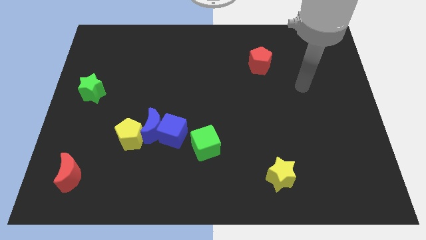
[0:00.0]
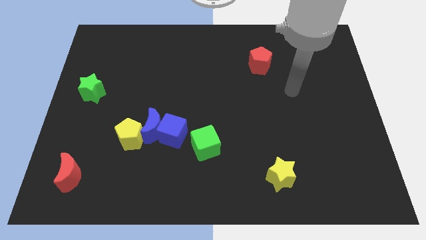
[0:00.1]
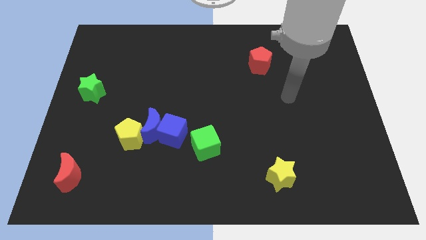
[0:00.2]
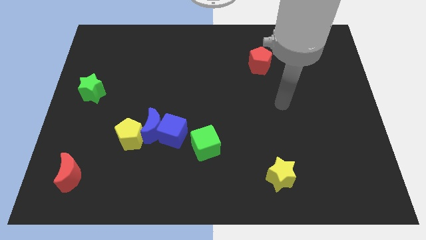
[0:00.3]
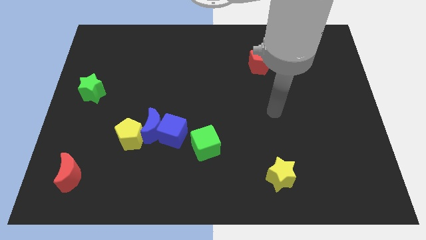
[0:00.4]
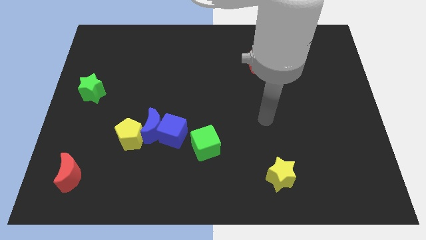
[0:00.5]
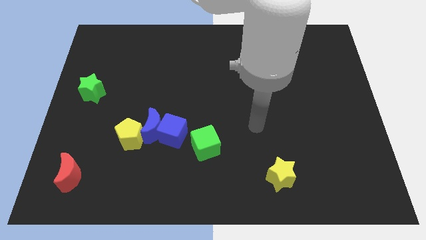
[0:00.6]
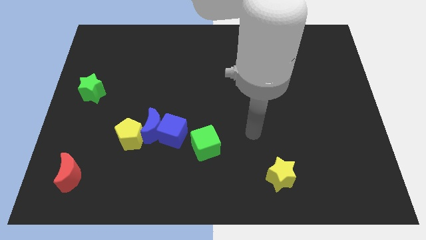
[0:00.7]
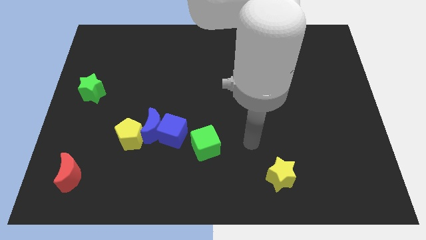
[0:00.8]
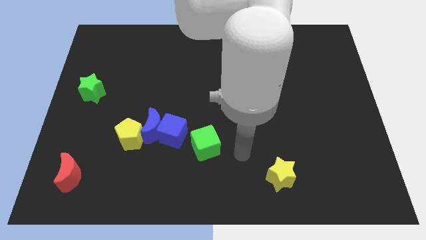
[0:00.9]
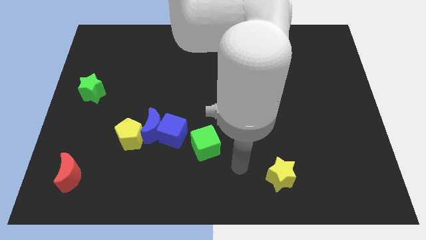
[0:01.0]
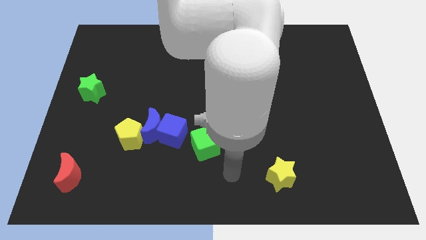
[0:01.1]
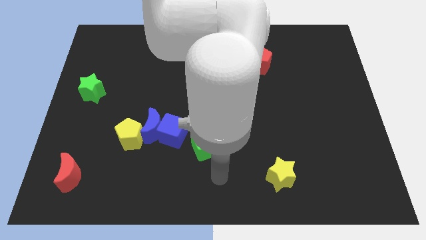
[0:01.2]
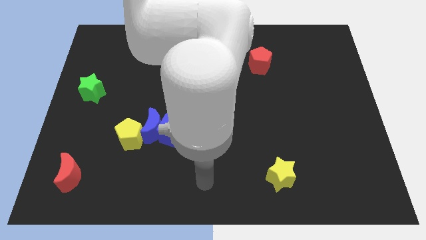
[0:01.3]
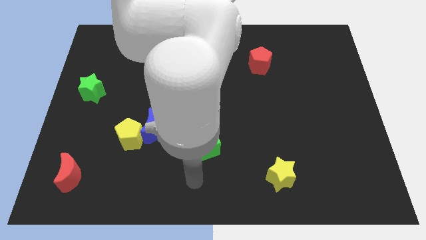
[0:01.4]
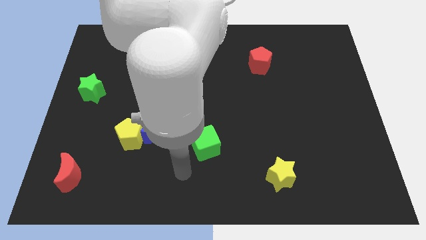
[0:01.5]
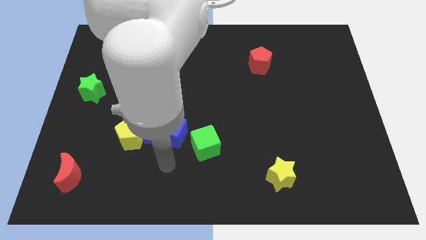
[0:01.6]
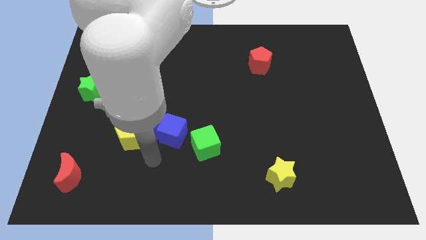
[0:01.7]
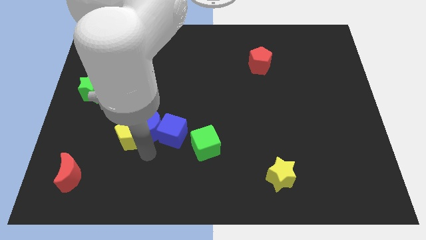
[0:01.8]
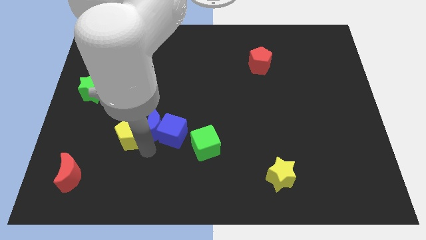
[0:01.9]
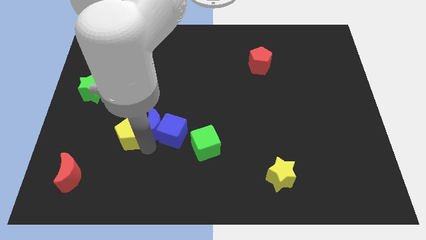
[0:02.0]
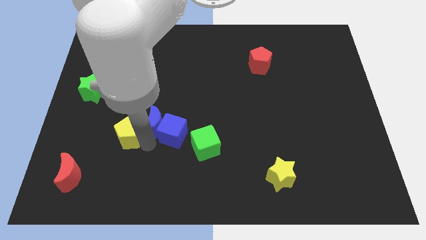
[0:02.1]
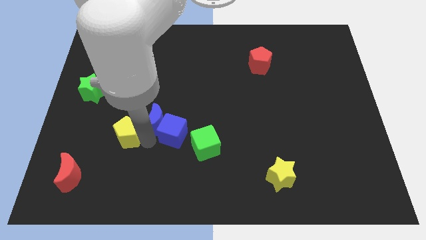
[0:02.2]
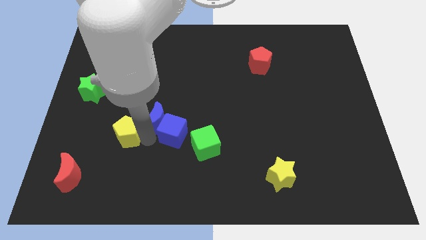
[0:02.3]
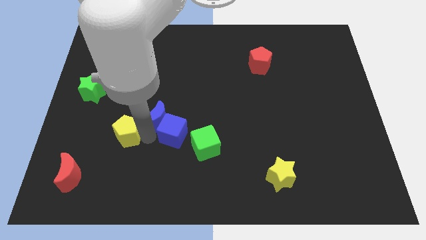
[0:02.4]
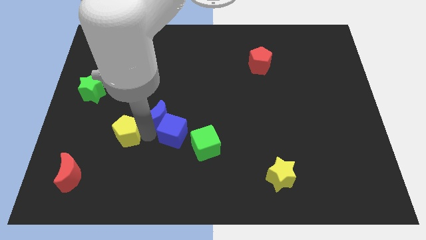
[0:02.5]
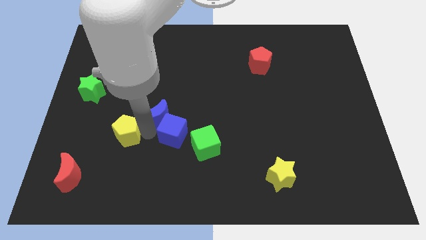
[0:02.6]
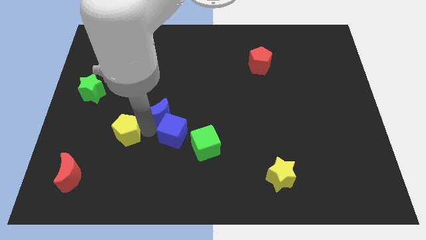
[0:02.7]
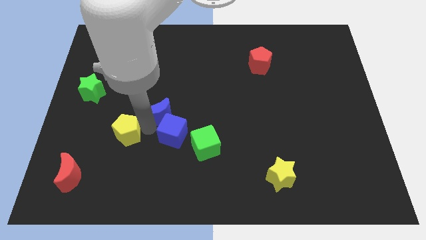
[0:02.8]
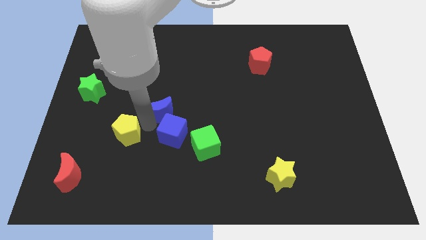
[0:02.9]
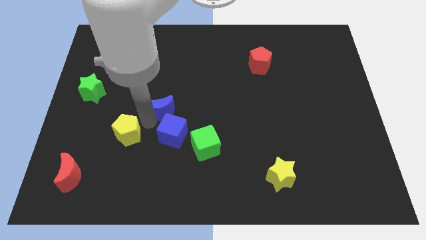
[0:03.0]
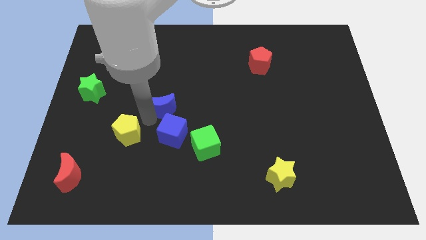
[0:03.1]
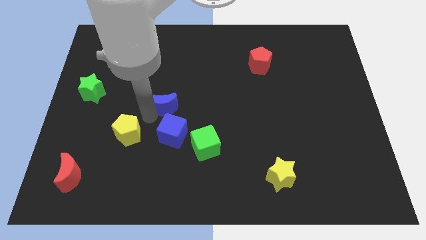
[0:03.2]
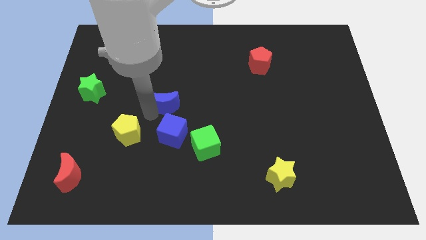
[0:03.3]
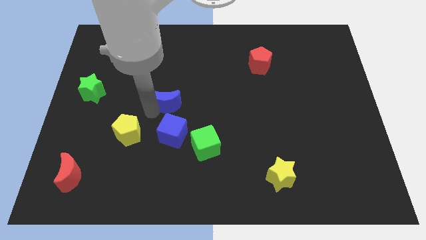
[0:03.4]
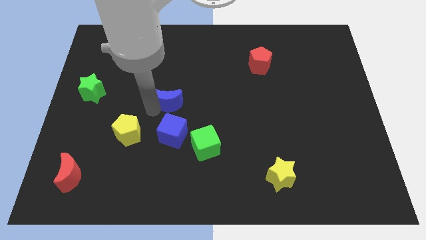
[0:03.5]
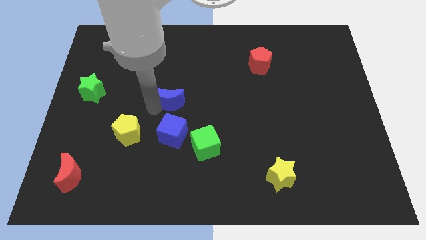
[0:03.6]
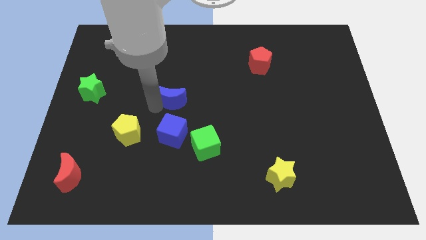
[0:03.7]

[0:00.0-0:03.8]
move the blue moon away from the blue cube and yellow pentagon

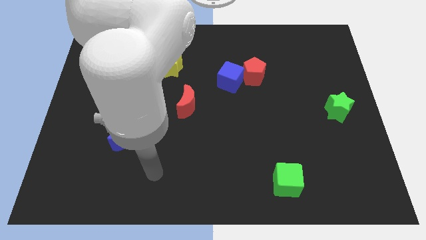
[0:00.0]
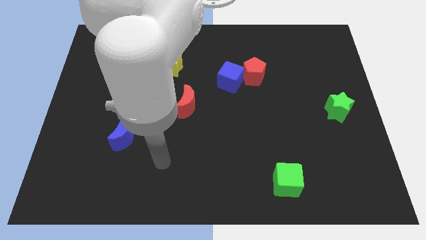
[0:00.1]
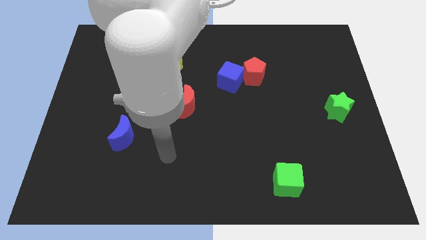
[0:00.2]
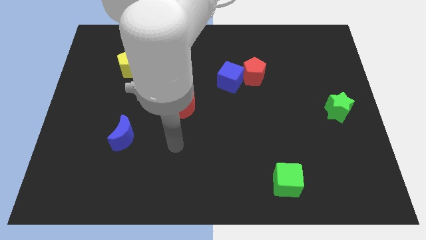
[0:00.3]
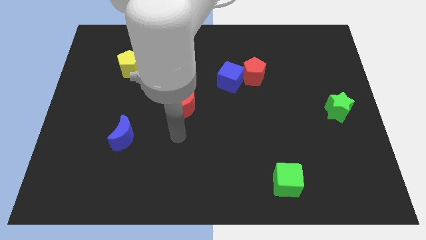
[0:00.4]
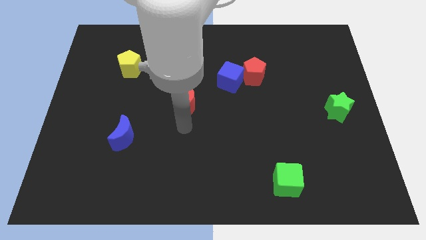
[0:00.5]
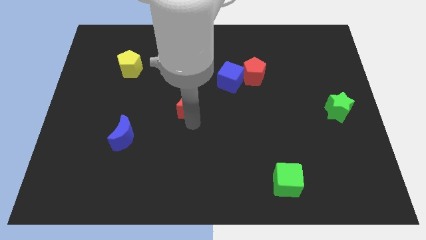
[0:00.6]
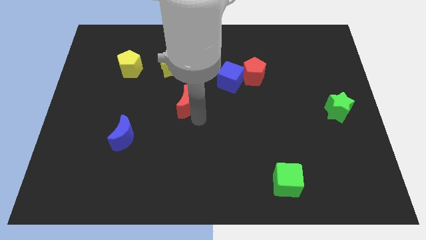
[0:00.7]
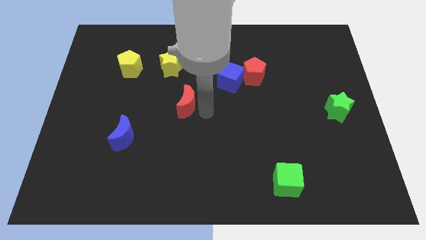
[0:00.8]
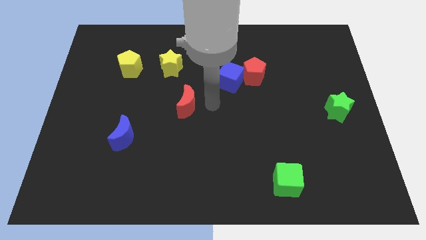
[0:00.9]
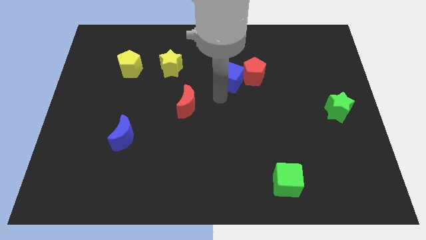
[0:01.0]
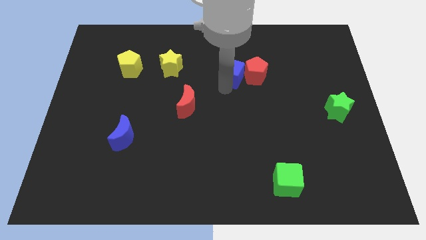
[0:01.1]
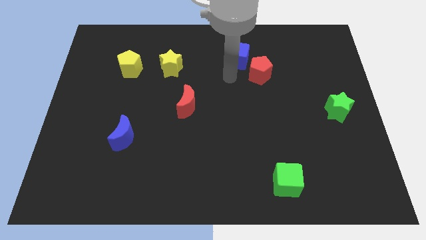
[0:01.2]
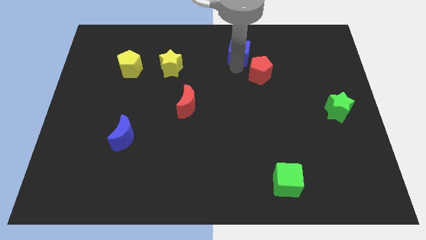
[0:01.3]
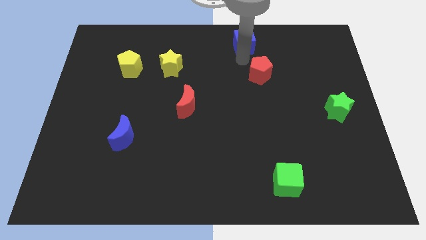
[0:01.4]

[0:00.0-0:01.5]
separate the red pentagon from the blue cube

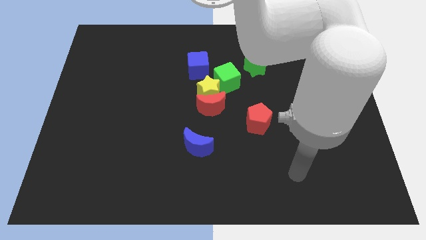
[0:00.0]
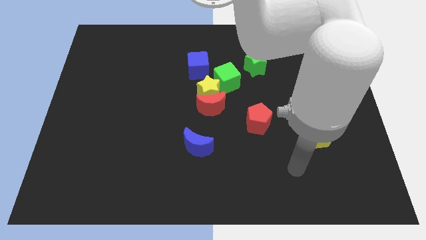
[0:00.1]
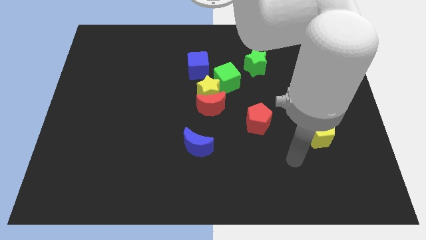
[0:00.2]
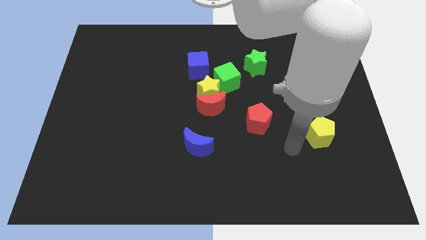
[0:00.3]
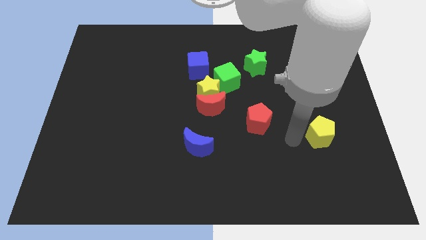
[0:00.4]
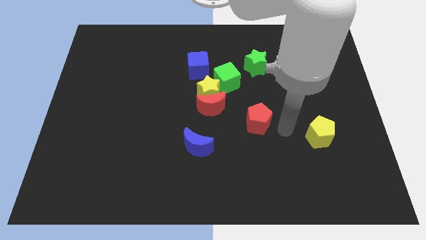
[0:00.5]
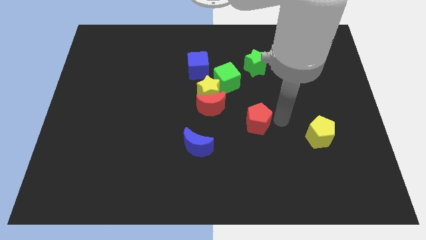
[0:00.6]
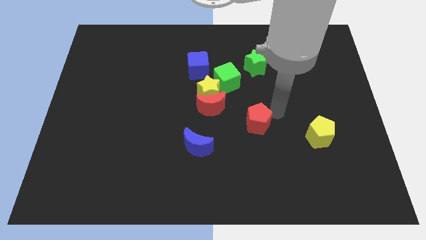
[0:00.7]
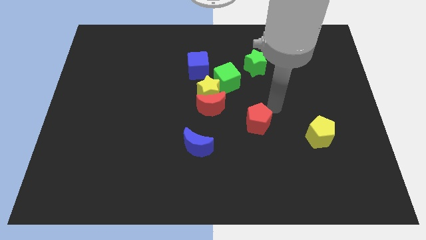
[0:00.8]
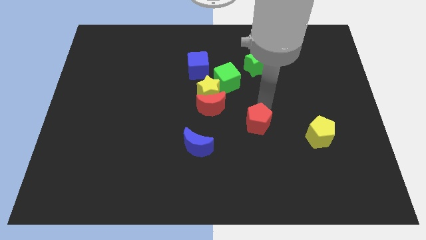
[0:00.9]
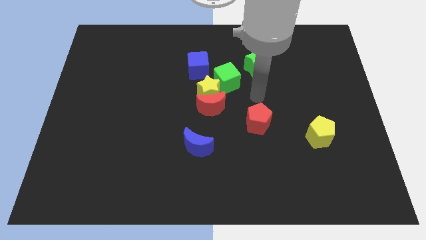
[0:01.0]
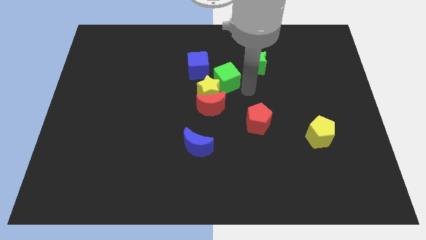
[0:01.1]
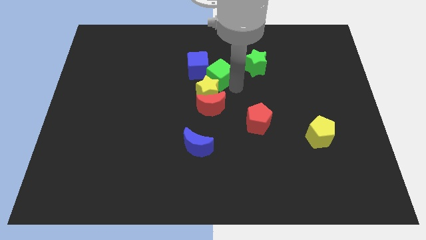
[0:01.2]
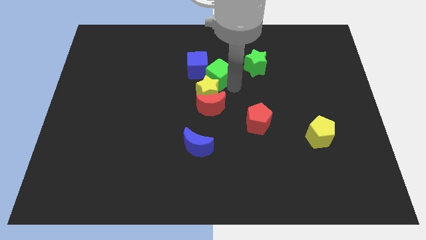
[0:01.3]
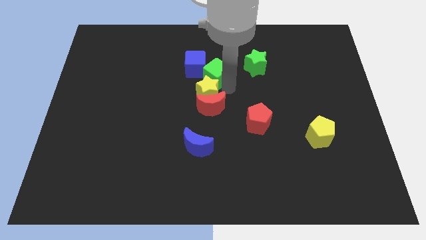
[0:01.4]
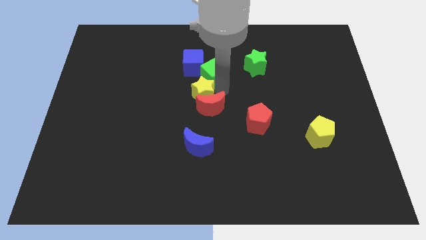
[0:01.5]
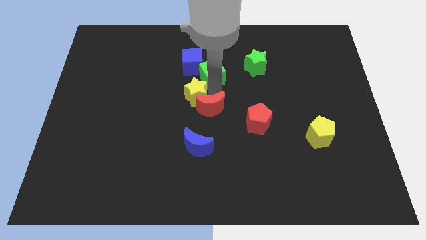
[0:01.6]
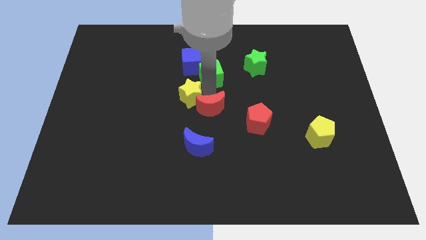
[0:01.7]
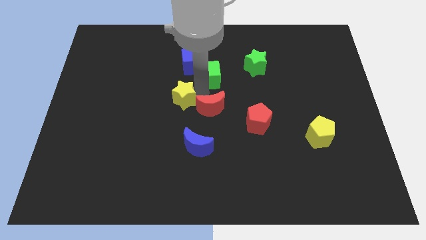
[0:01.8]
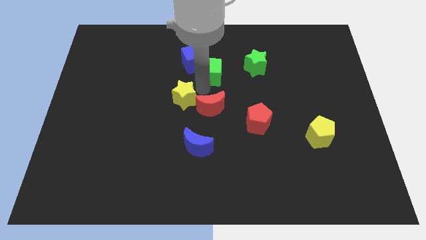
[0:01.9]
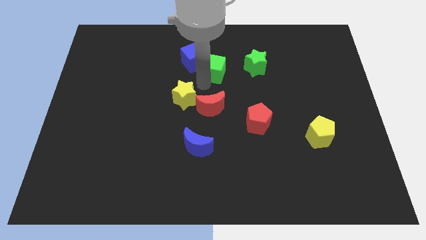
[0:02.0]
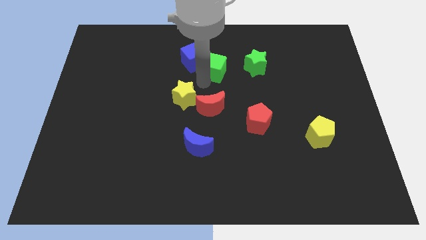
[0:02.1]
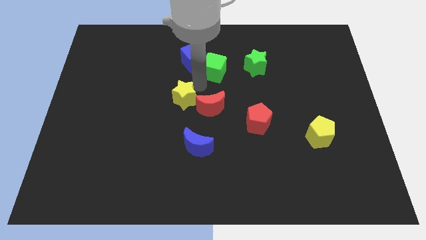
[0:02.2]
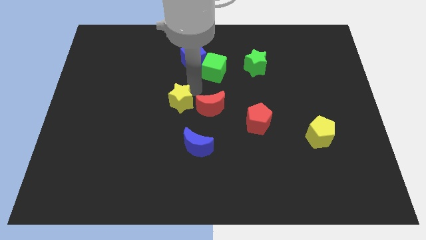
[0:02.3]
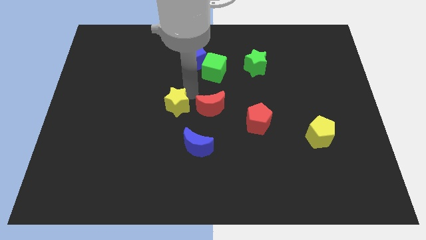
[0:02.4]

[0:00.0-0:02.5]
separate the yellow star from the group of blocks

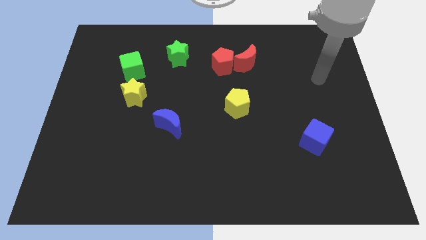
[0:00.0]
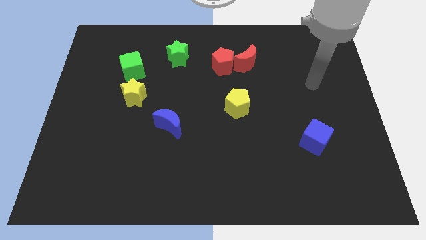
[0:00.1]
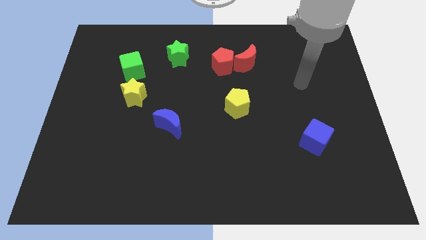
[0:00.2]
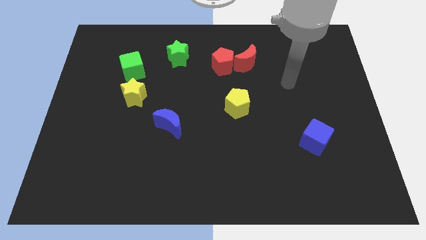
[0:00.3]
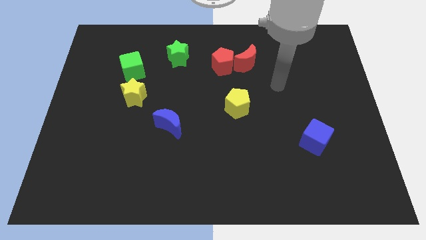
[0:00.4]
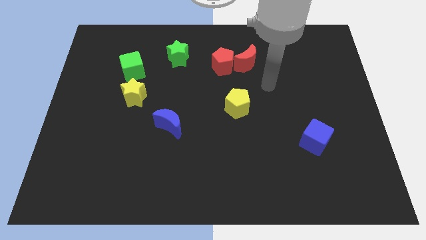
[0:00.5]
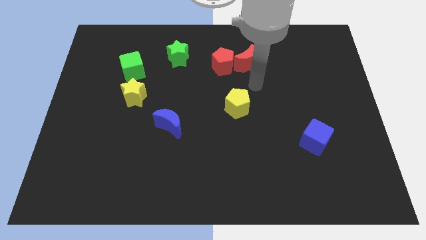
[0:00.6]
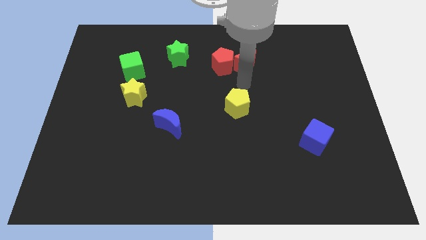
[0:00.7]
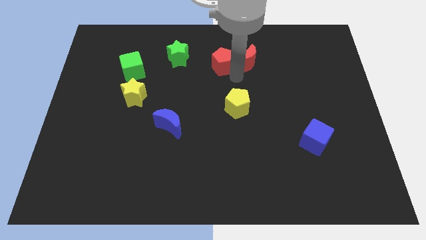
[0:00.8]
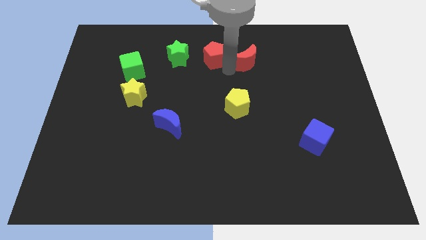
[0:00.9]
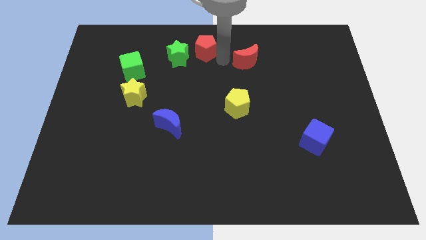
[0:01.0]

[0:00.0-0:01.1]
pull the red moon apart from the red pentagon

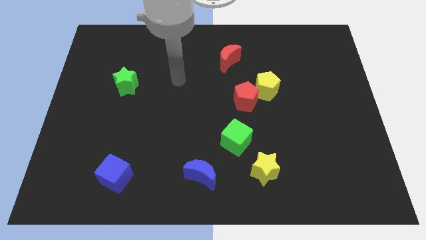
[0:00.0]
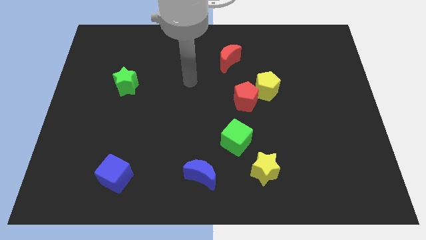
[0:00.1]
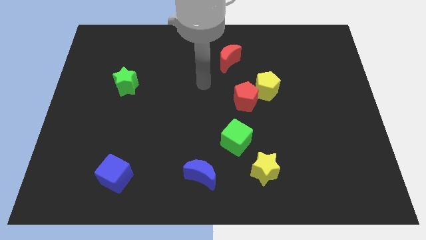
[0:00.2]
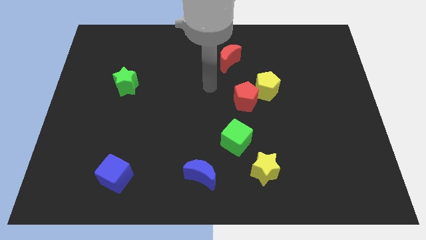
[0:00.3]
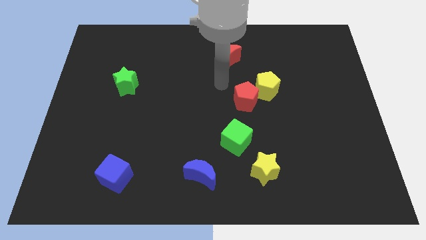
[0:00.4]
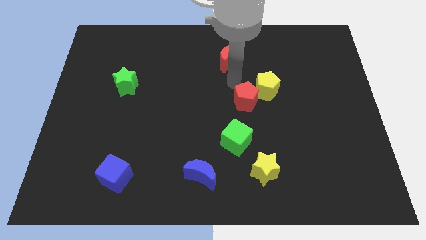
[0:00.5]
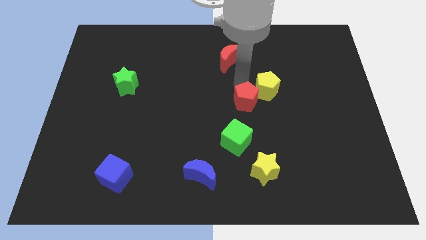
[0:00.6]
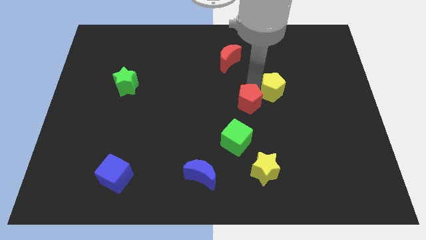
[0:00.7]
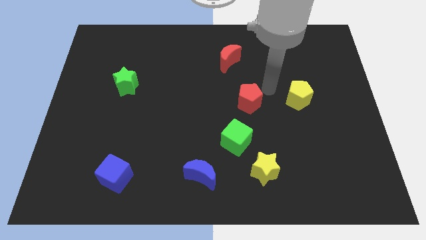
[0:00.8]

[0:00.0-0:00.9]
move the red pentagon away from the yellow pentagon
